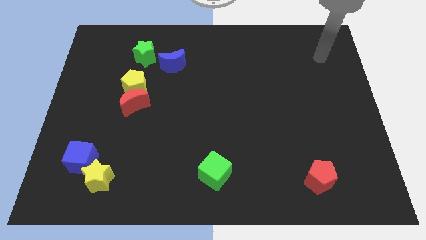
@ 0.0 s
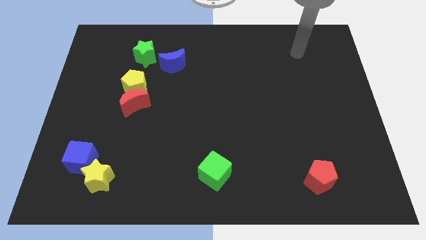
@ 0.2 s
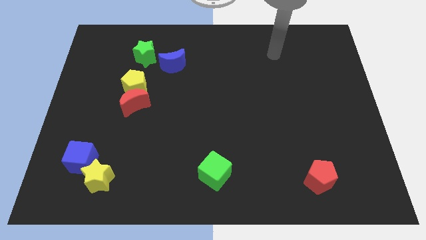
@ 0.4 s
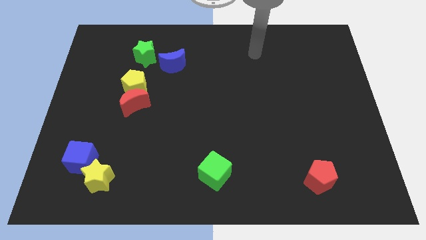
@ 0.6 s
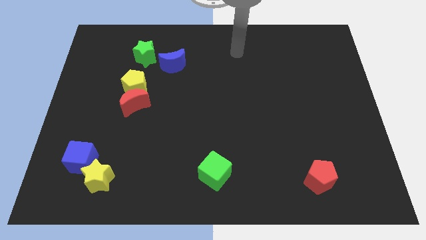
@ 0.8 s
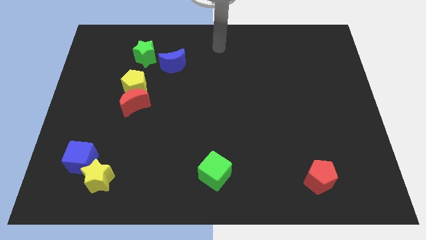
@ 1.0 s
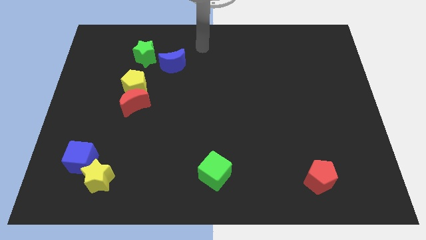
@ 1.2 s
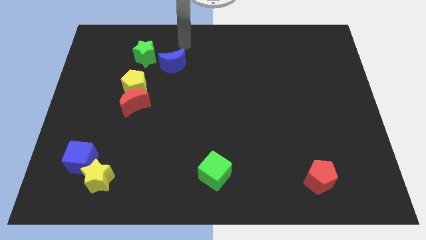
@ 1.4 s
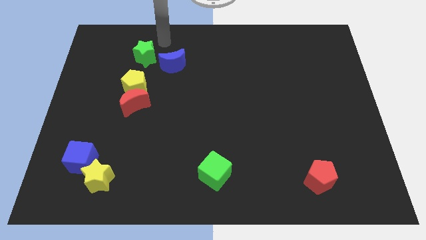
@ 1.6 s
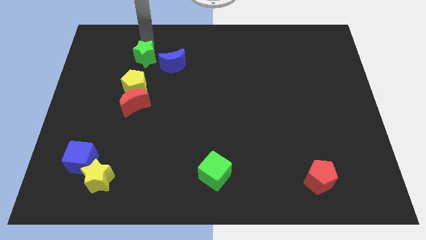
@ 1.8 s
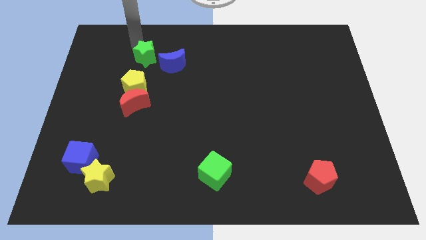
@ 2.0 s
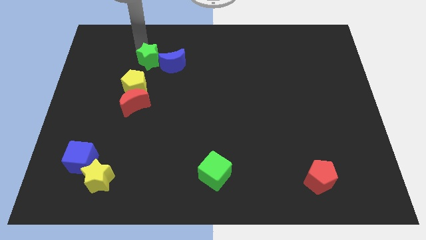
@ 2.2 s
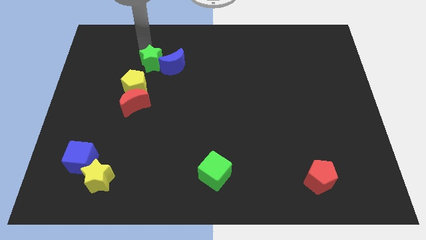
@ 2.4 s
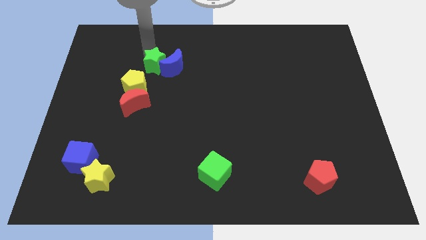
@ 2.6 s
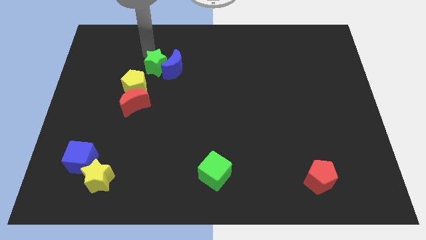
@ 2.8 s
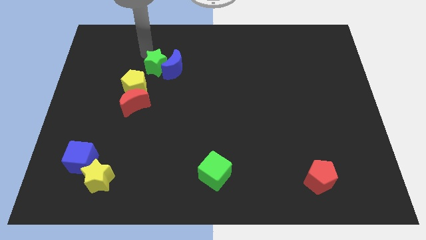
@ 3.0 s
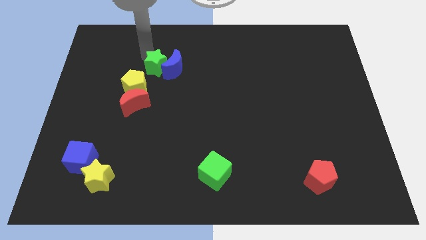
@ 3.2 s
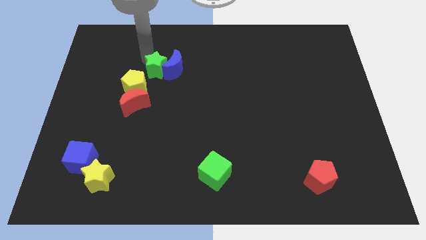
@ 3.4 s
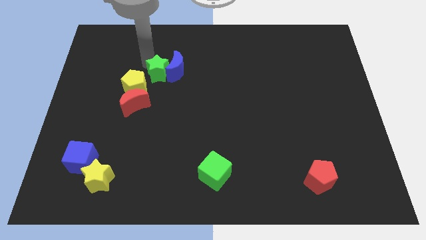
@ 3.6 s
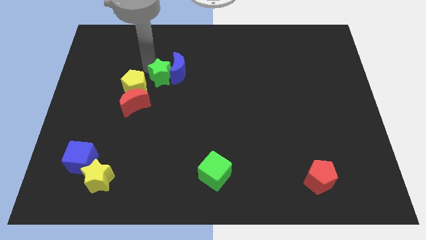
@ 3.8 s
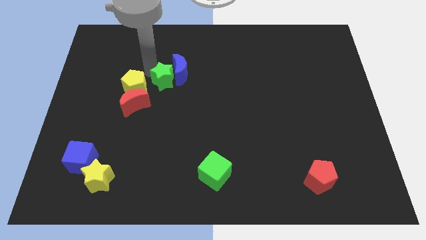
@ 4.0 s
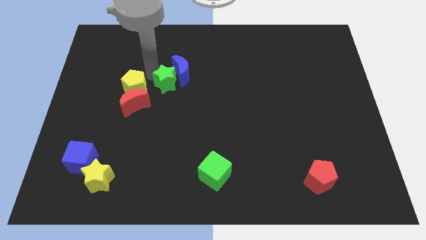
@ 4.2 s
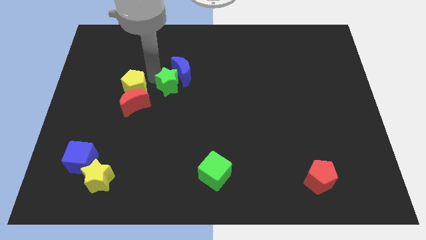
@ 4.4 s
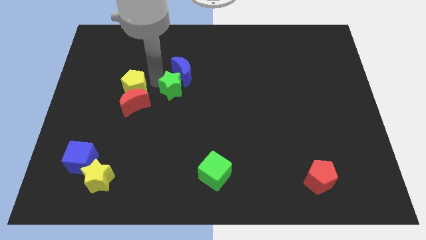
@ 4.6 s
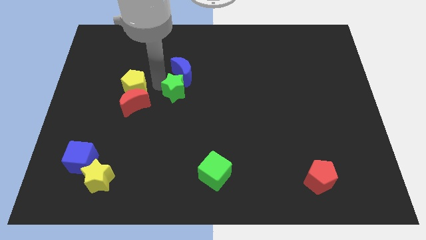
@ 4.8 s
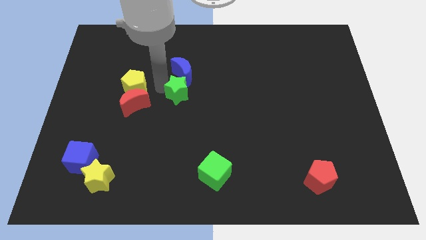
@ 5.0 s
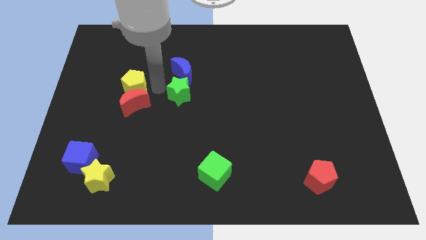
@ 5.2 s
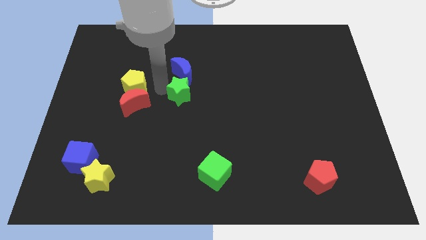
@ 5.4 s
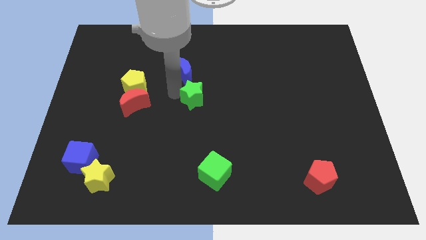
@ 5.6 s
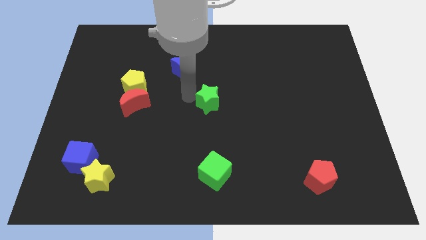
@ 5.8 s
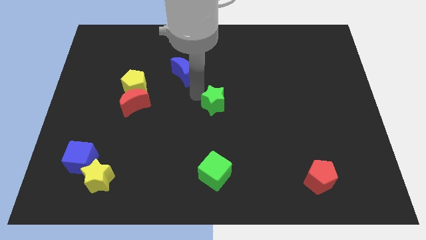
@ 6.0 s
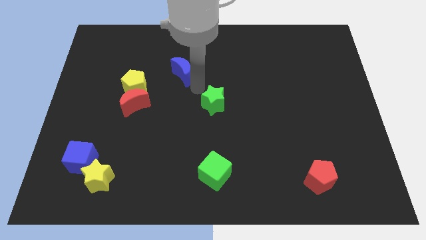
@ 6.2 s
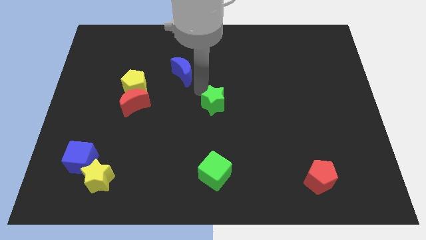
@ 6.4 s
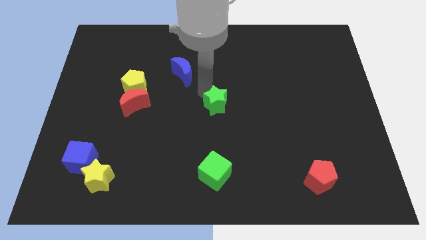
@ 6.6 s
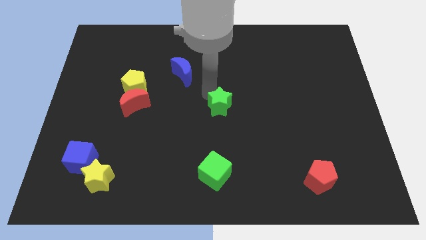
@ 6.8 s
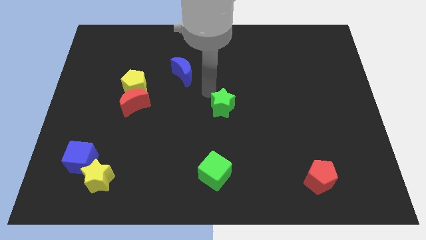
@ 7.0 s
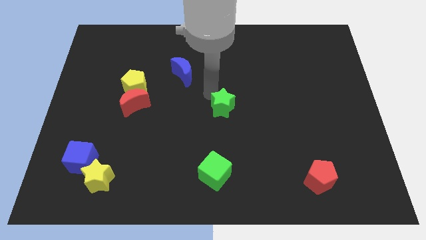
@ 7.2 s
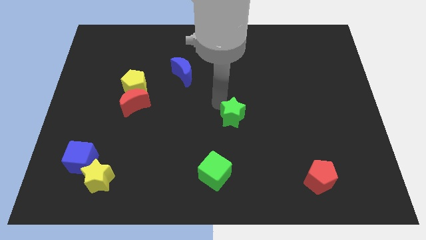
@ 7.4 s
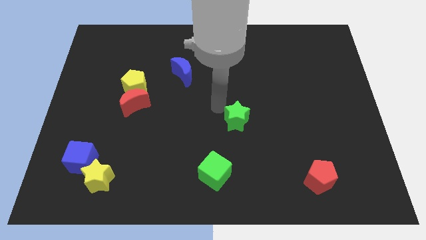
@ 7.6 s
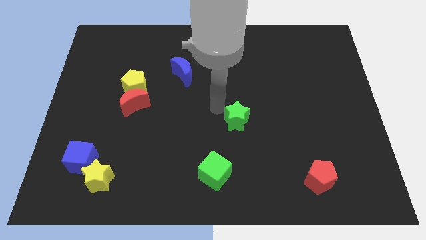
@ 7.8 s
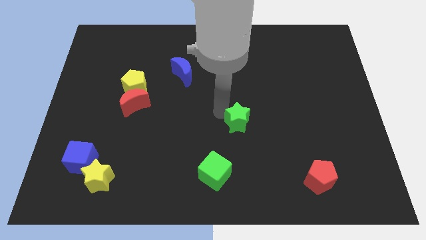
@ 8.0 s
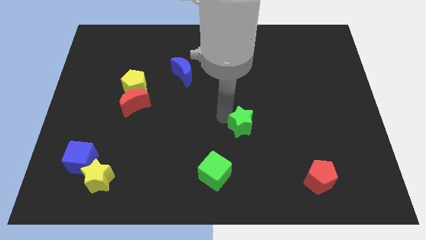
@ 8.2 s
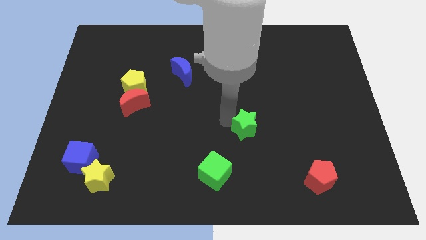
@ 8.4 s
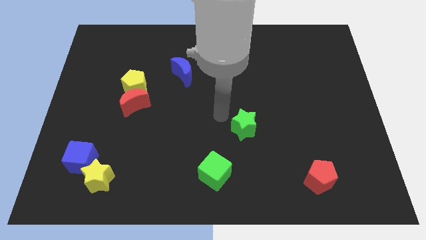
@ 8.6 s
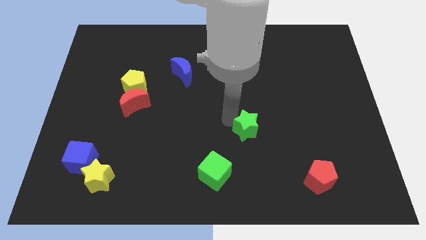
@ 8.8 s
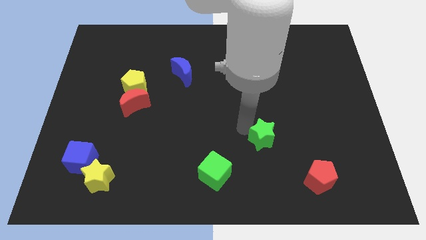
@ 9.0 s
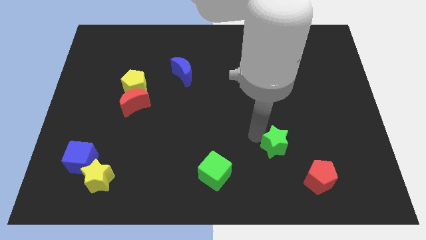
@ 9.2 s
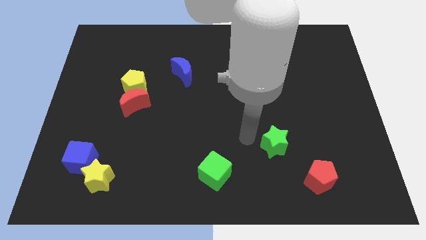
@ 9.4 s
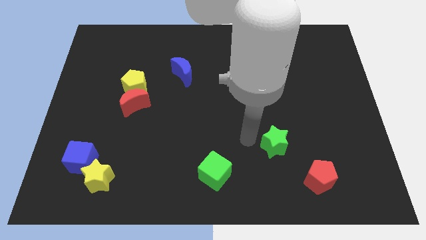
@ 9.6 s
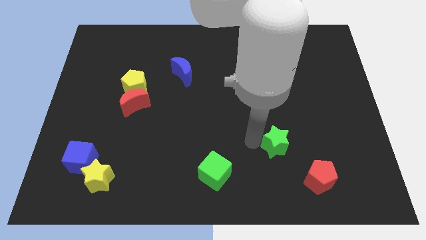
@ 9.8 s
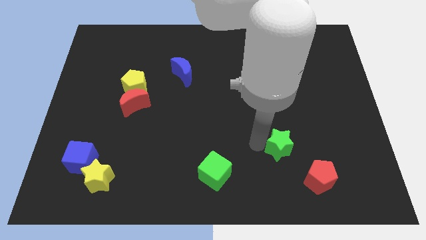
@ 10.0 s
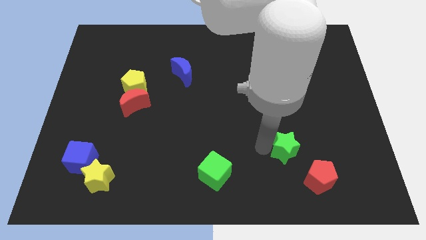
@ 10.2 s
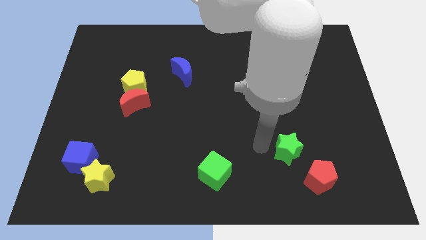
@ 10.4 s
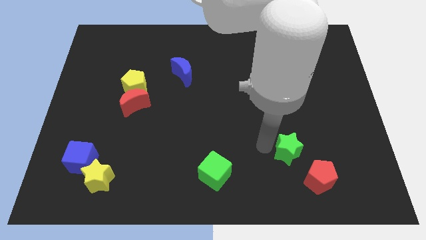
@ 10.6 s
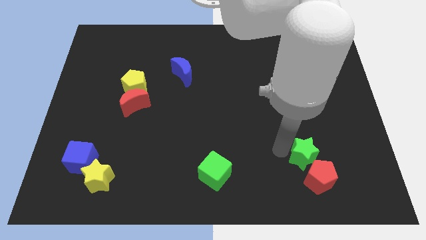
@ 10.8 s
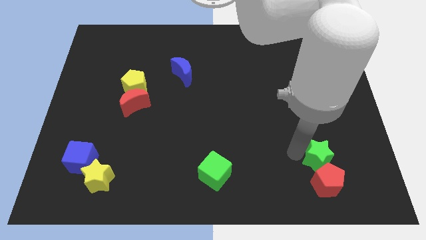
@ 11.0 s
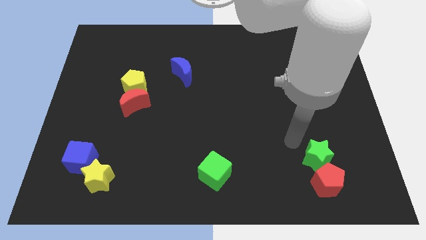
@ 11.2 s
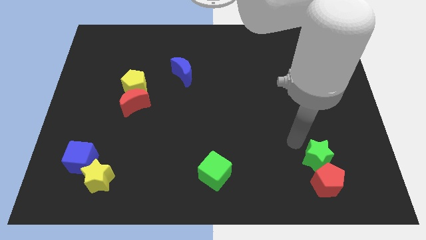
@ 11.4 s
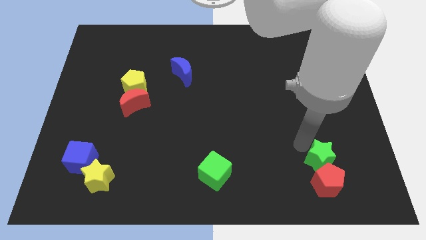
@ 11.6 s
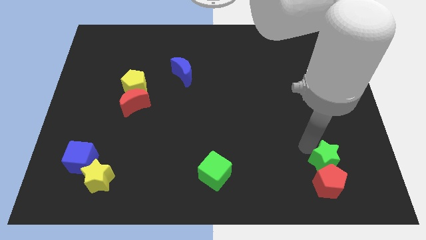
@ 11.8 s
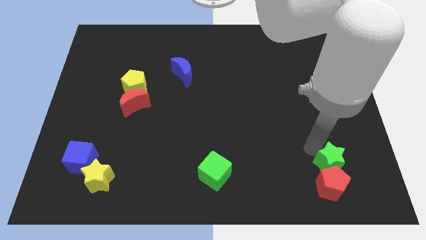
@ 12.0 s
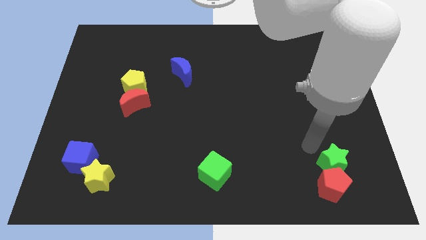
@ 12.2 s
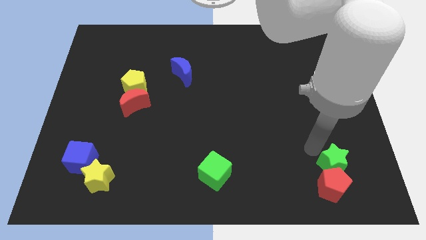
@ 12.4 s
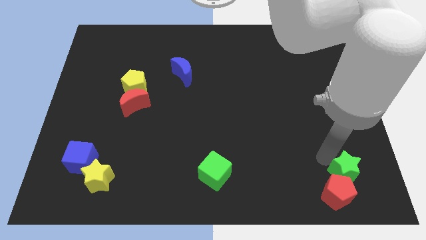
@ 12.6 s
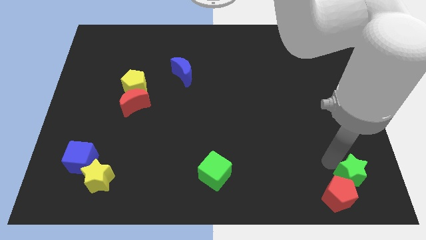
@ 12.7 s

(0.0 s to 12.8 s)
slide the green star to the bottom right of the board

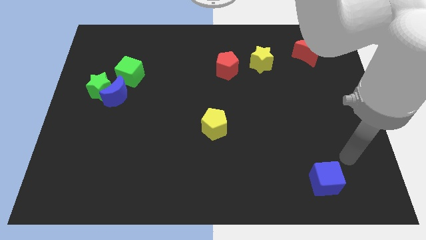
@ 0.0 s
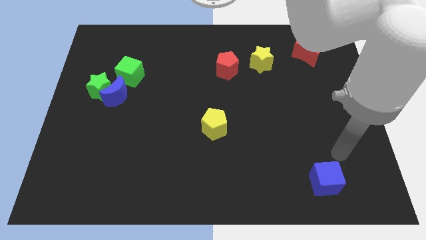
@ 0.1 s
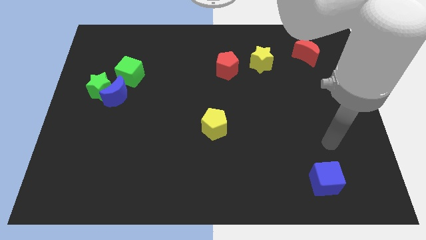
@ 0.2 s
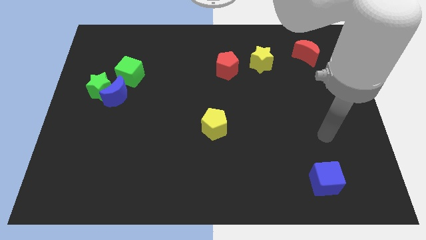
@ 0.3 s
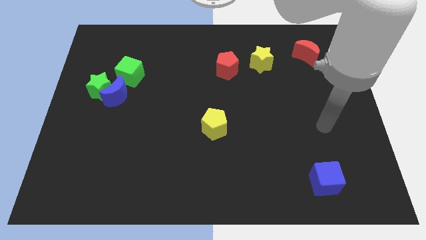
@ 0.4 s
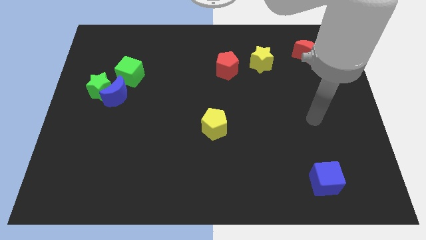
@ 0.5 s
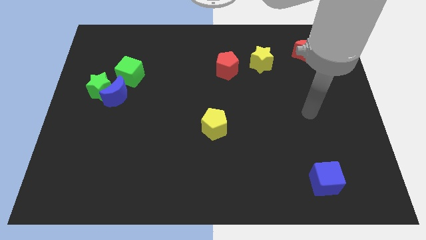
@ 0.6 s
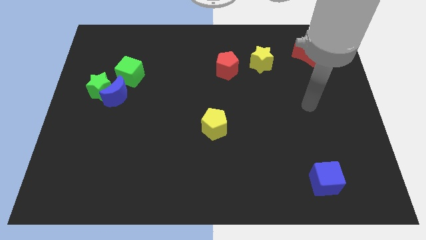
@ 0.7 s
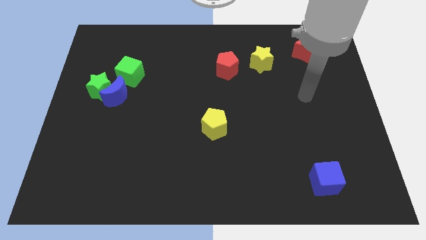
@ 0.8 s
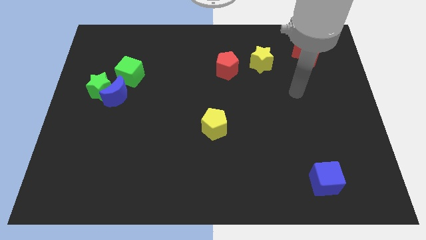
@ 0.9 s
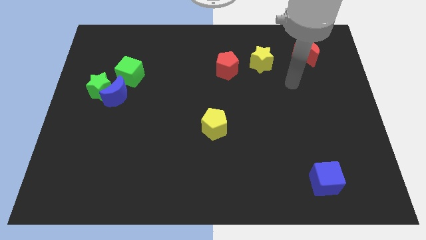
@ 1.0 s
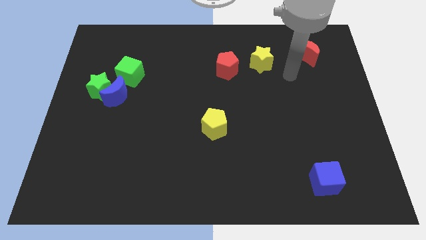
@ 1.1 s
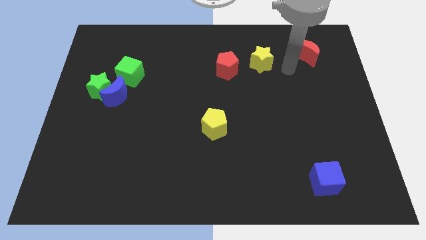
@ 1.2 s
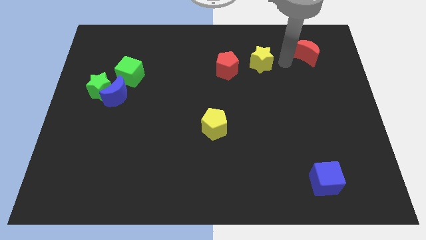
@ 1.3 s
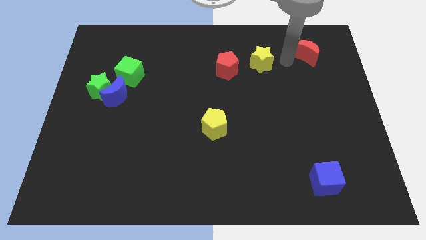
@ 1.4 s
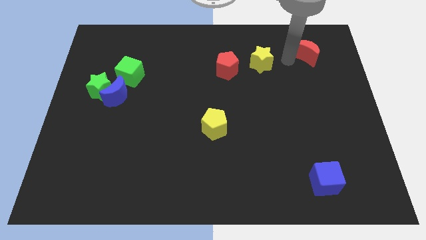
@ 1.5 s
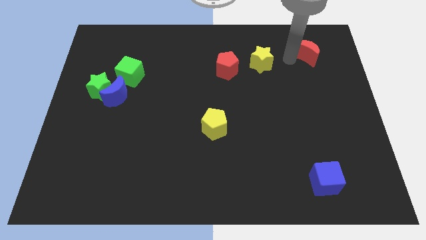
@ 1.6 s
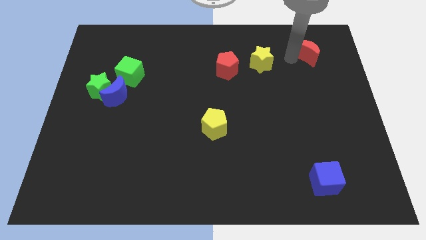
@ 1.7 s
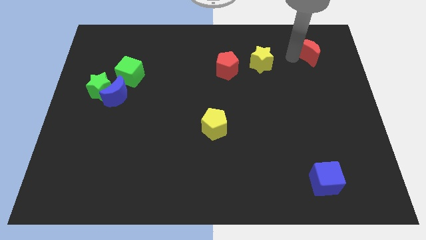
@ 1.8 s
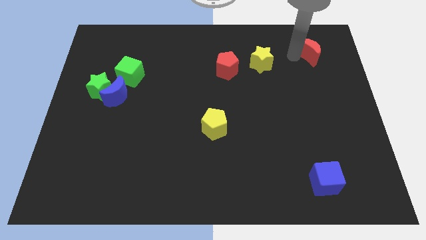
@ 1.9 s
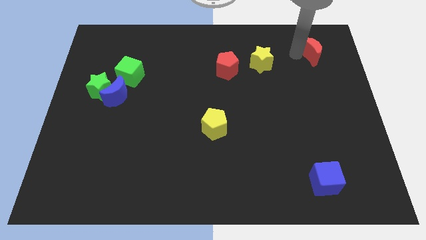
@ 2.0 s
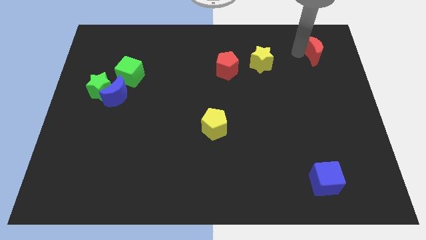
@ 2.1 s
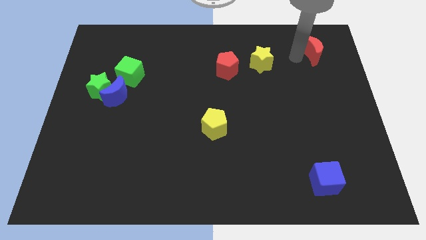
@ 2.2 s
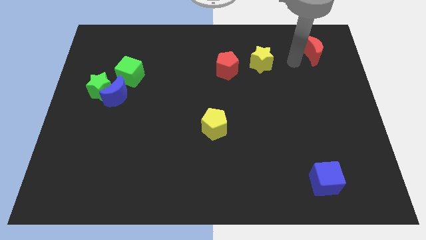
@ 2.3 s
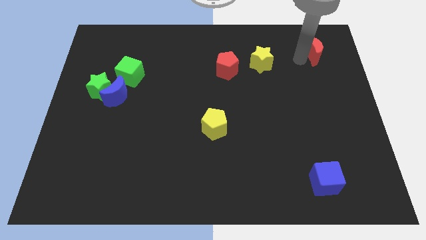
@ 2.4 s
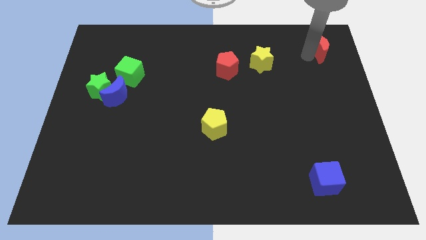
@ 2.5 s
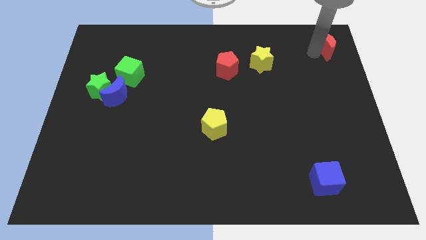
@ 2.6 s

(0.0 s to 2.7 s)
push the red moon to the top right of the board
